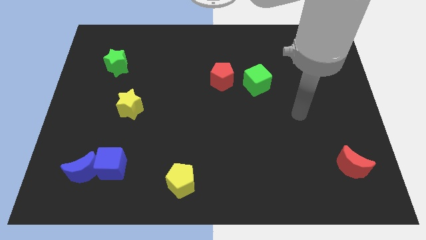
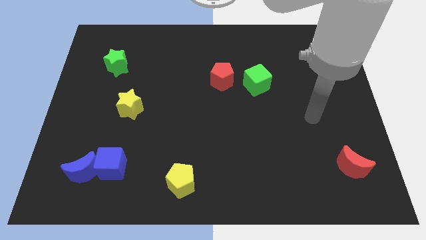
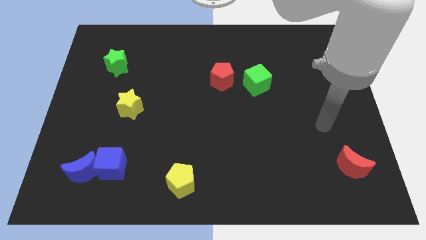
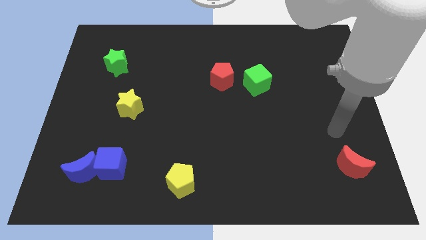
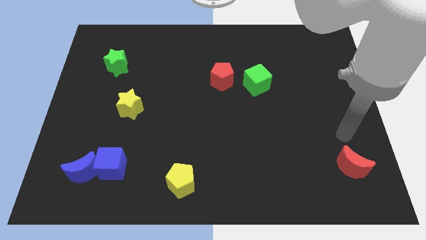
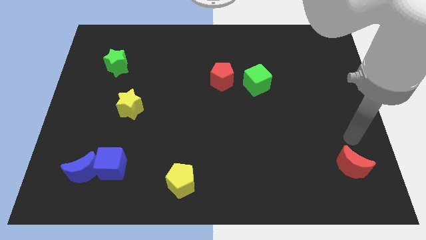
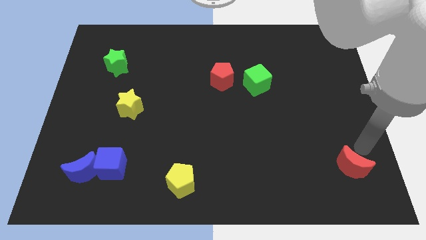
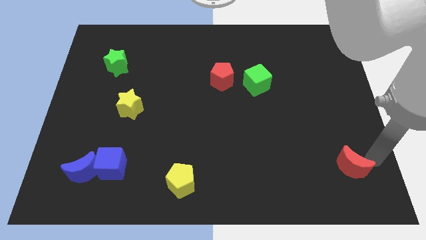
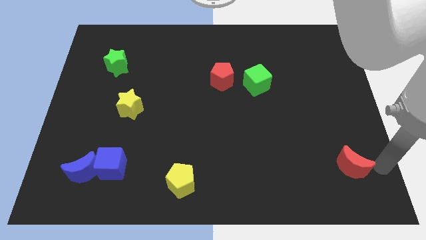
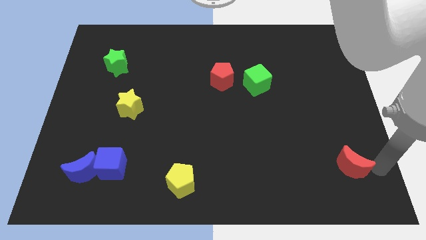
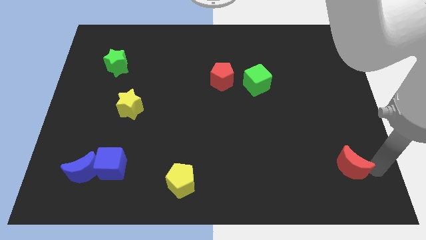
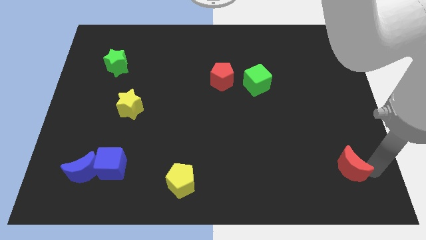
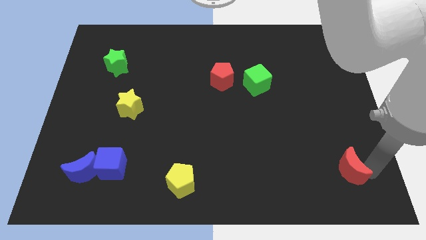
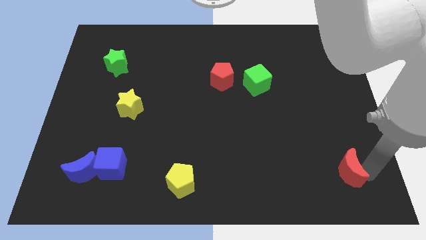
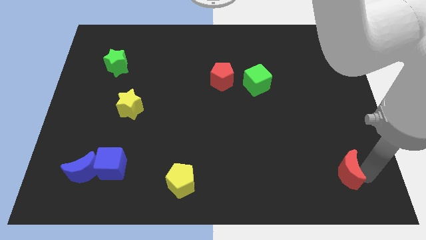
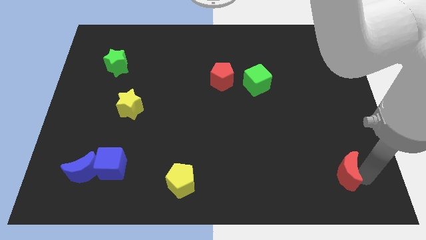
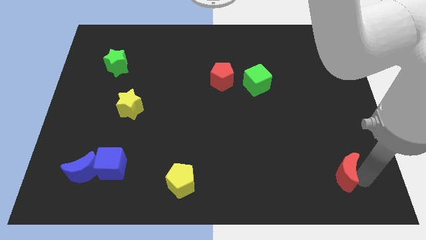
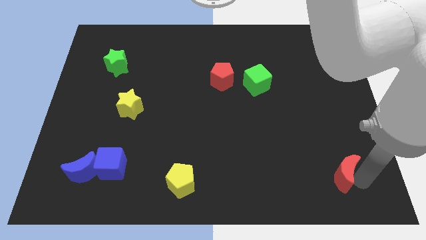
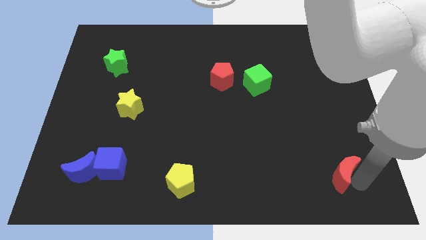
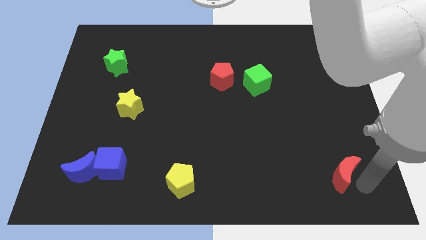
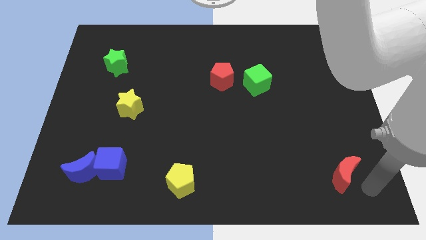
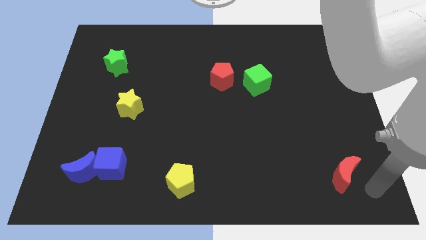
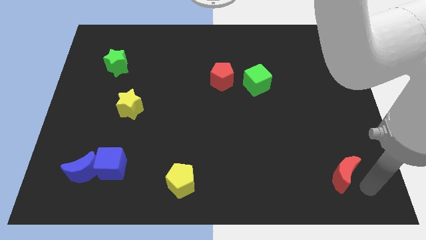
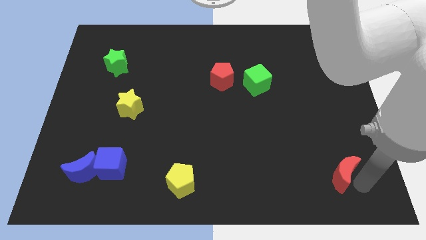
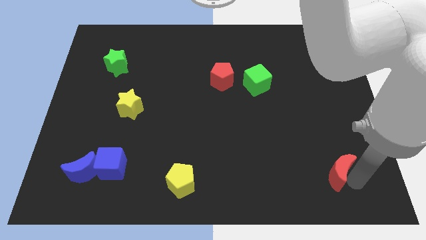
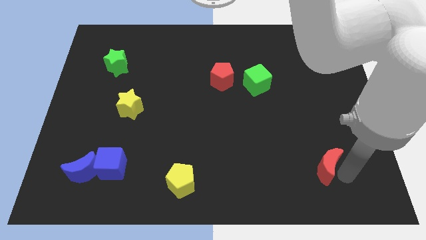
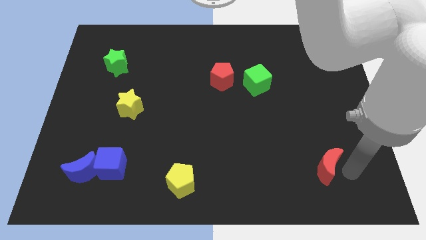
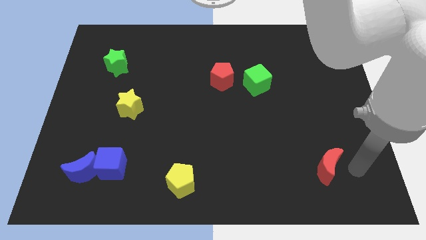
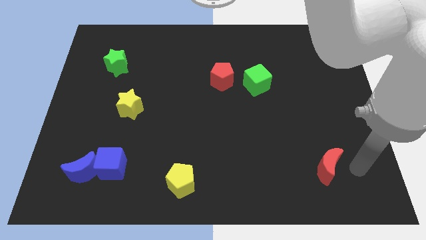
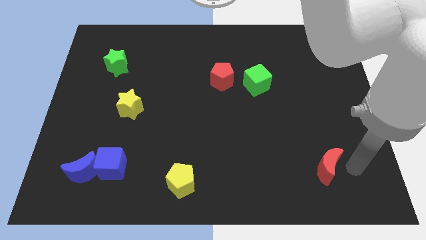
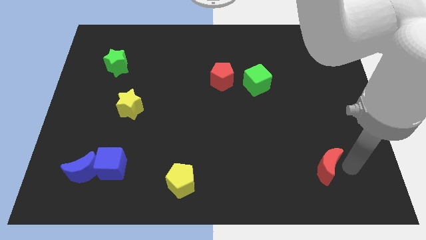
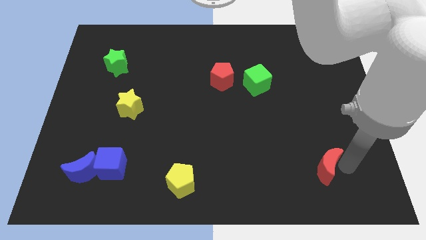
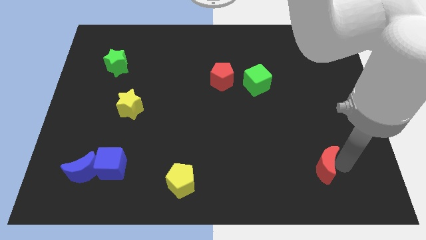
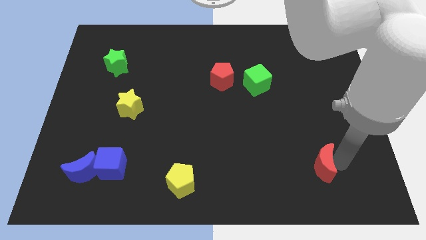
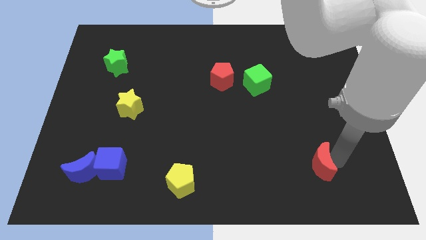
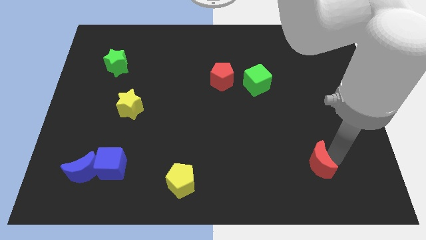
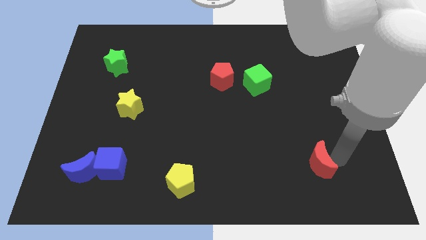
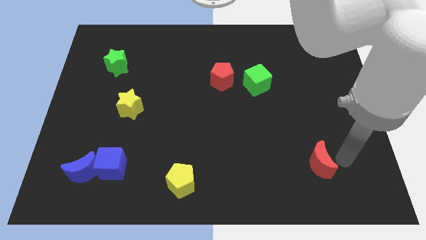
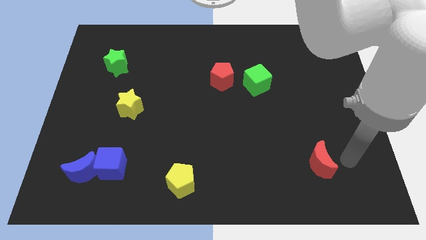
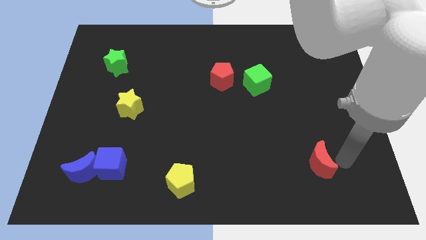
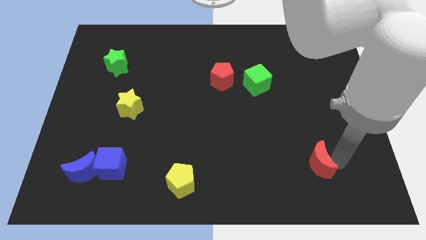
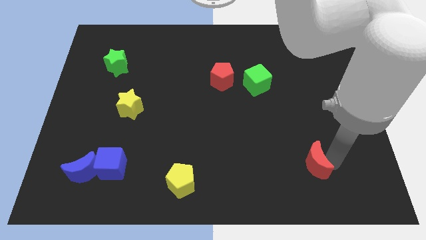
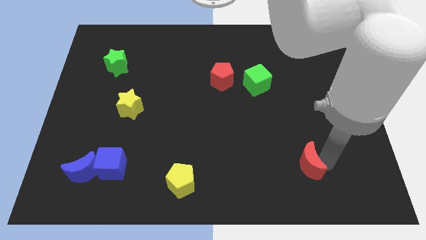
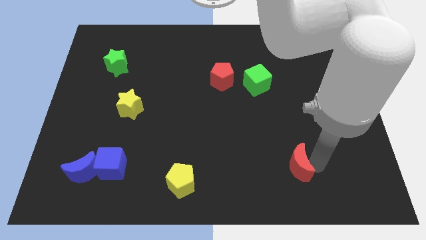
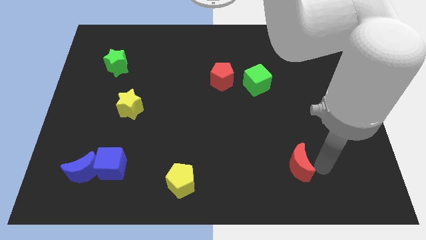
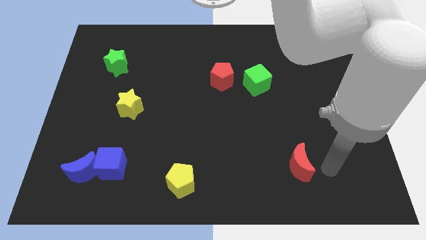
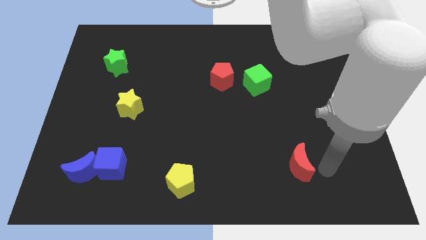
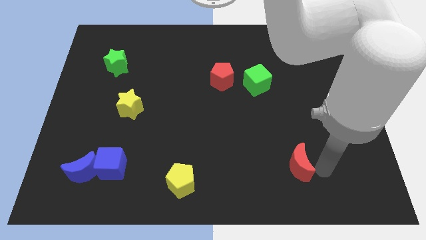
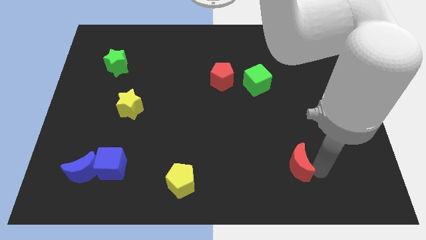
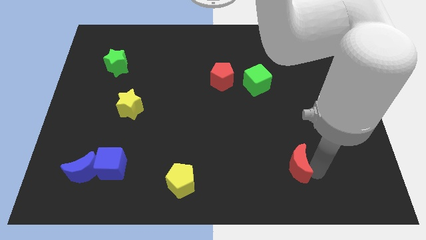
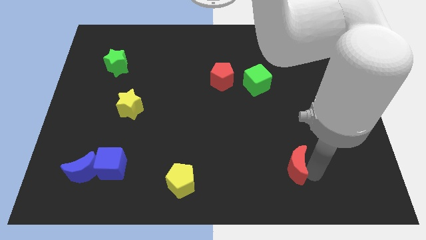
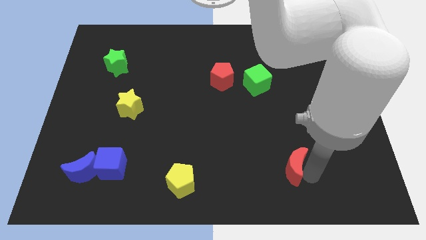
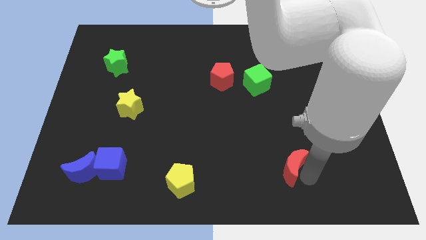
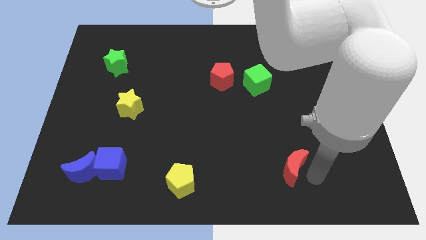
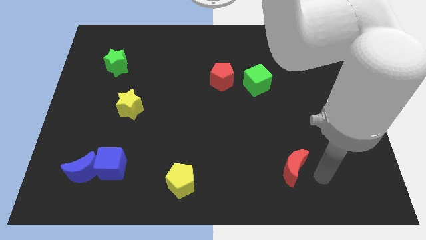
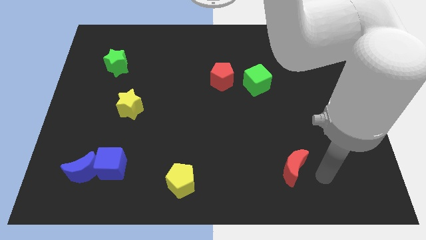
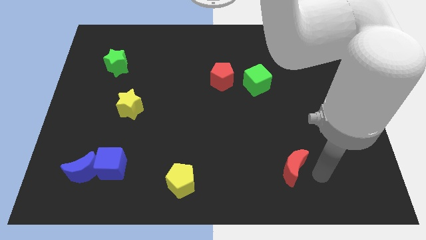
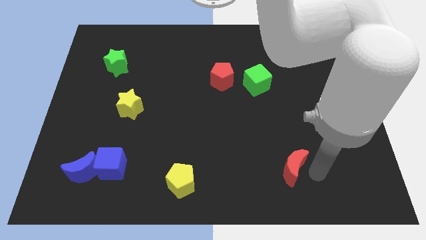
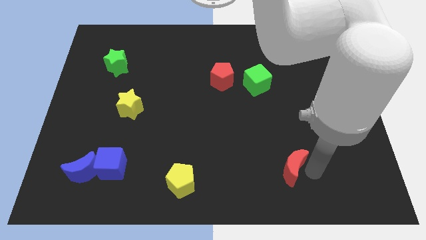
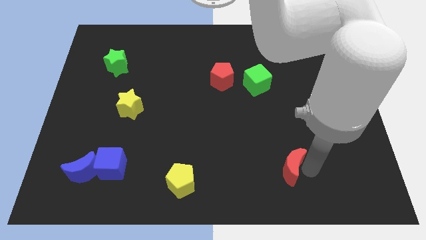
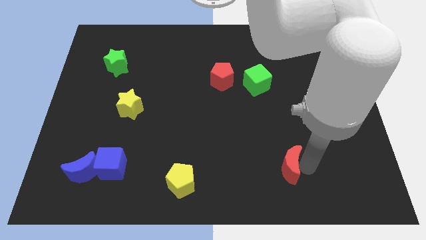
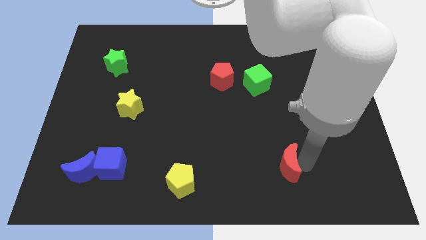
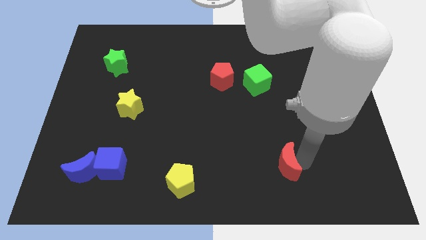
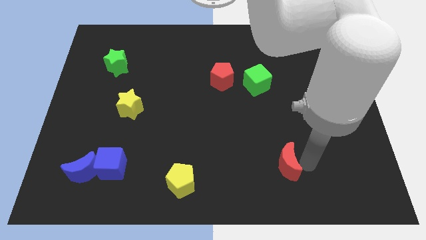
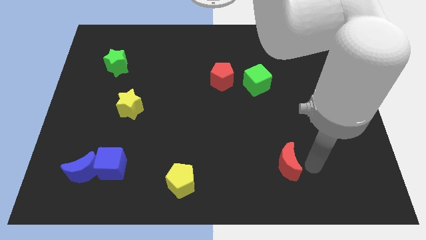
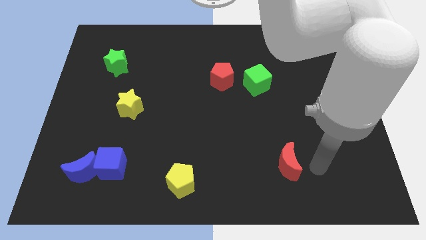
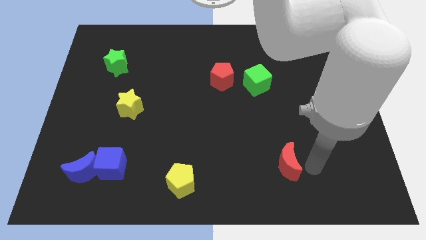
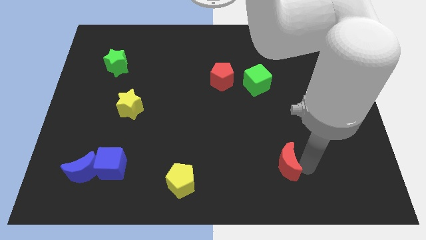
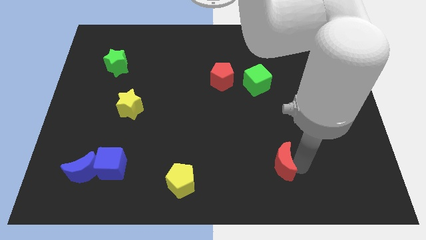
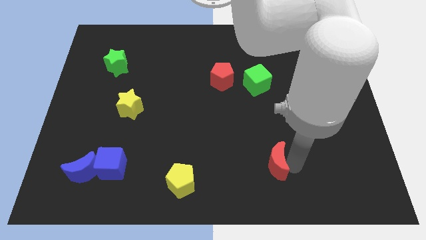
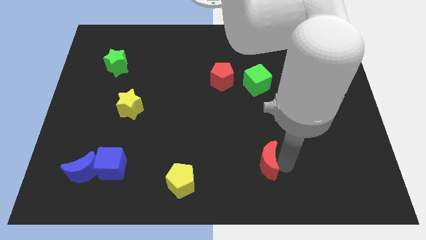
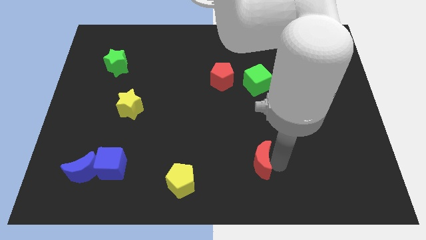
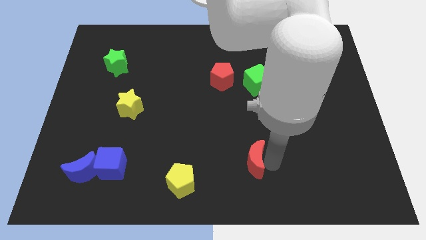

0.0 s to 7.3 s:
push the red moon to the left

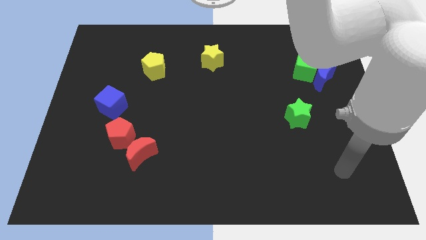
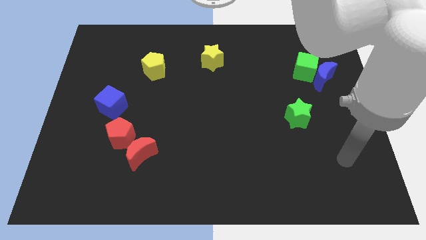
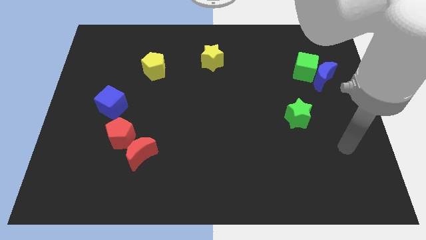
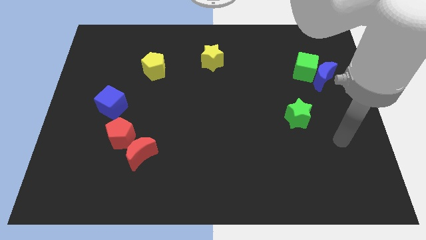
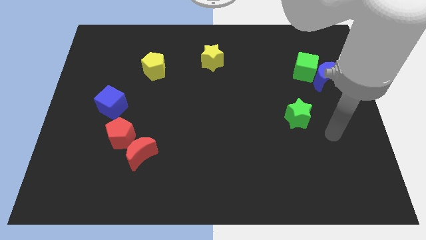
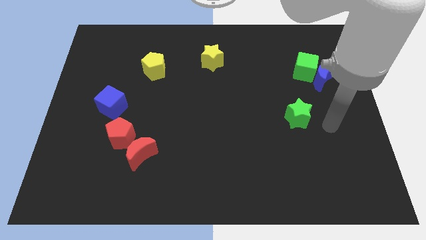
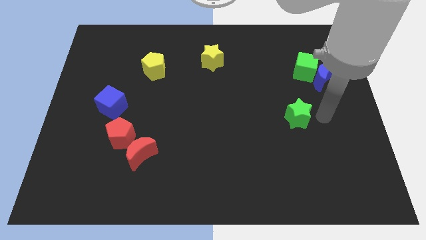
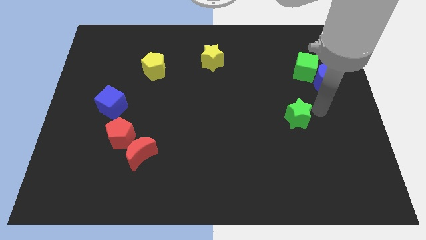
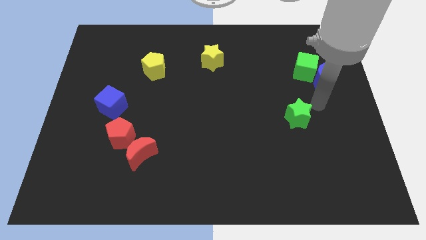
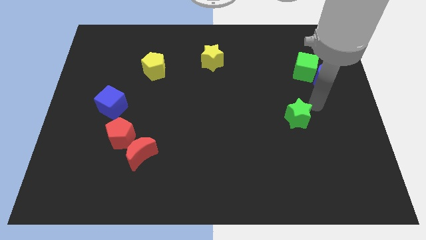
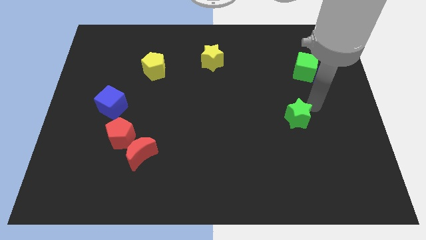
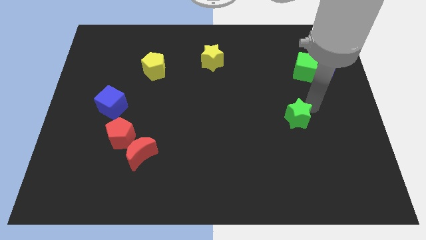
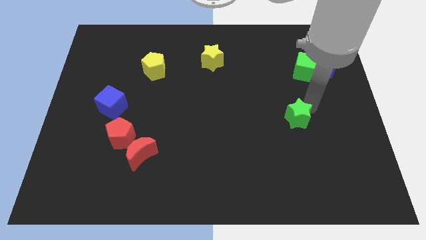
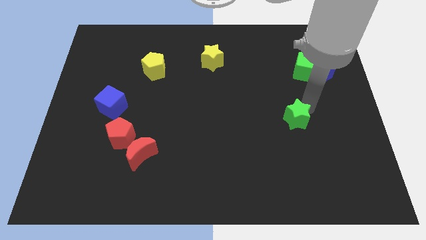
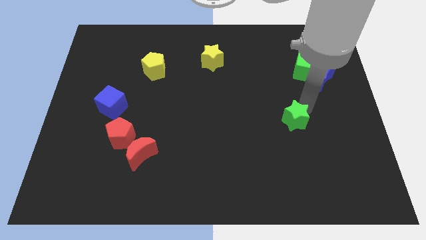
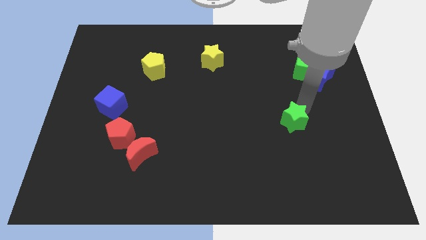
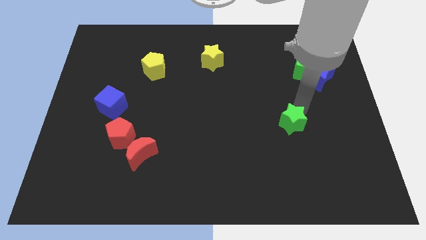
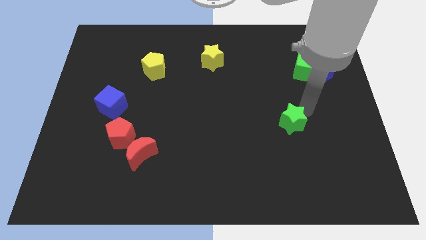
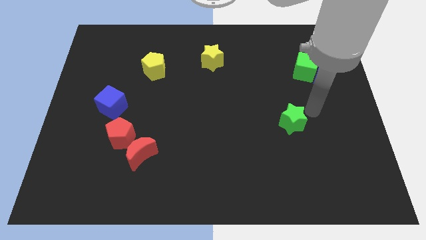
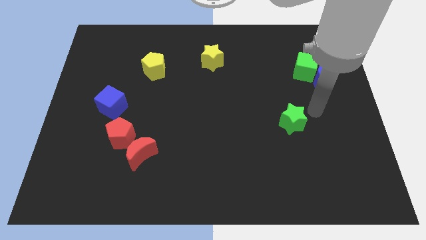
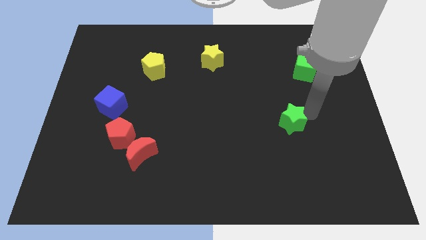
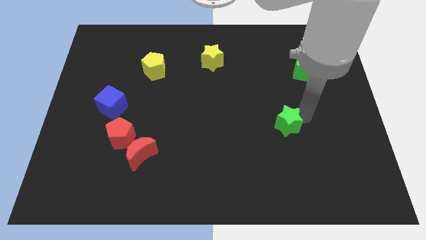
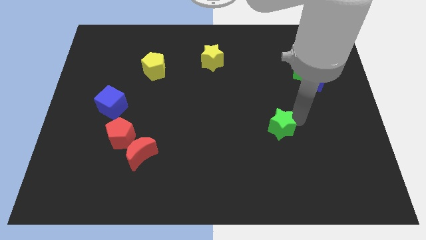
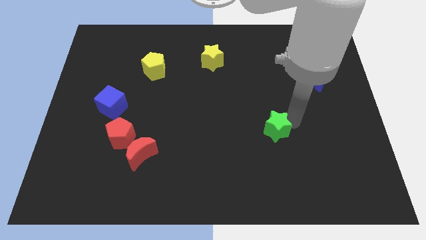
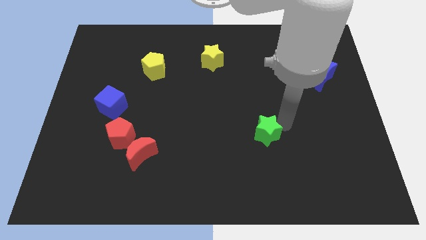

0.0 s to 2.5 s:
slide the green star slightly down and then to the left
